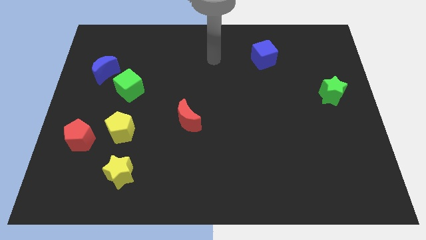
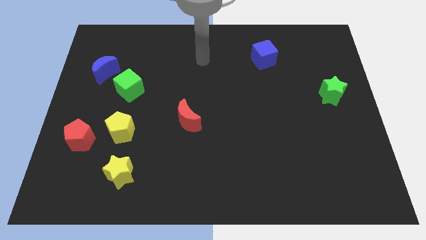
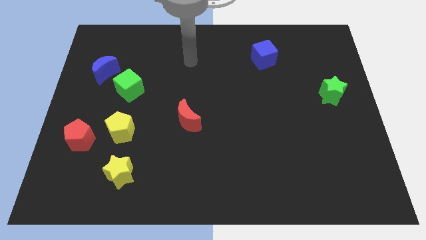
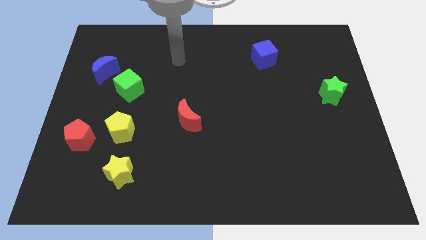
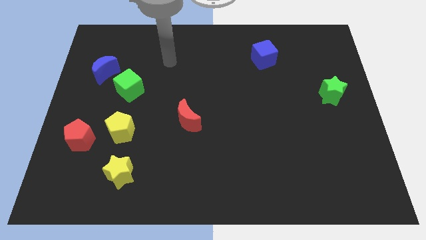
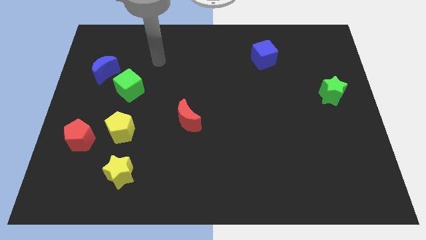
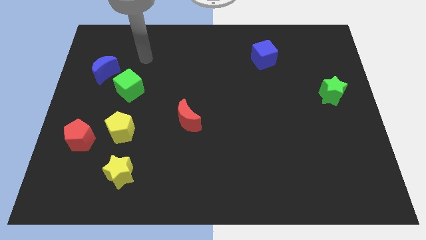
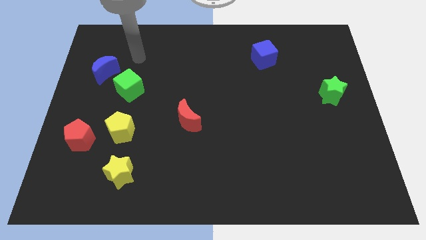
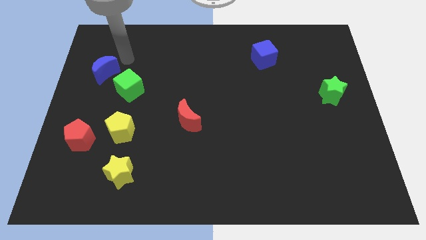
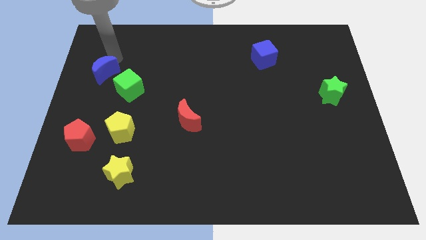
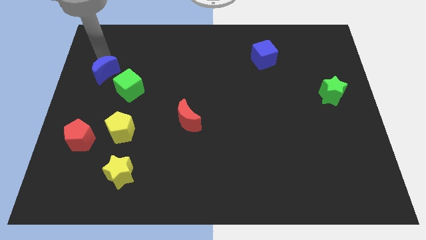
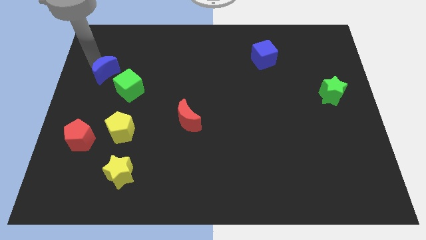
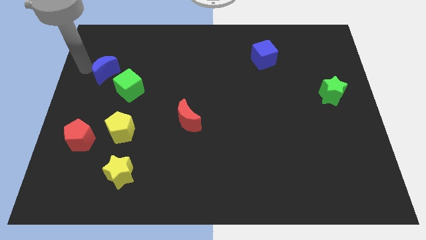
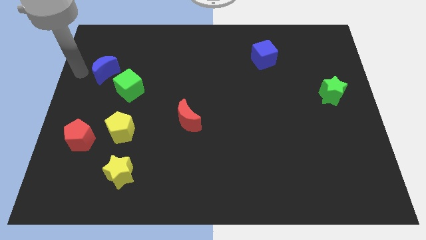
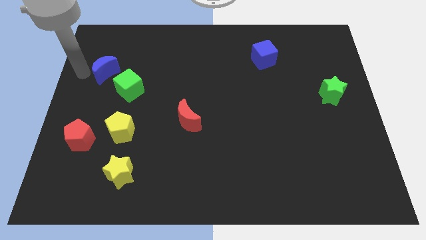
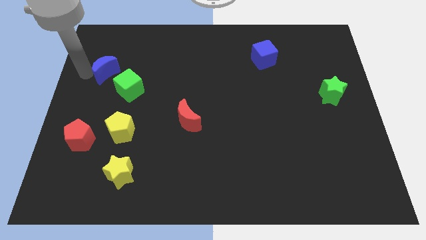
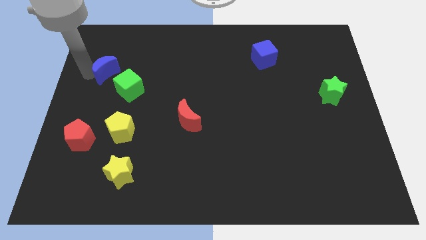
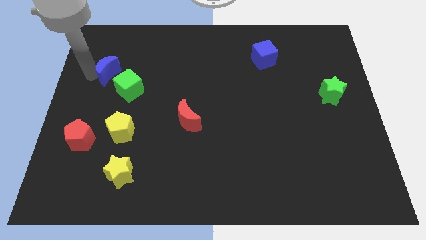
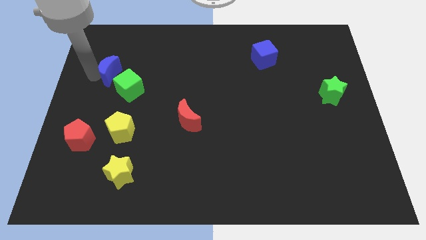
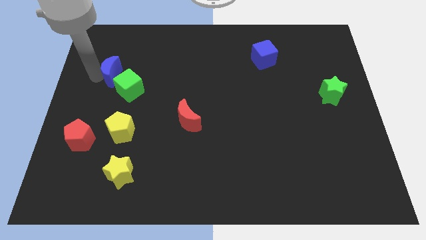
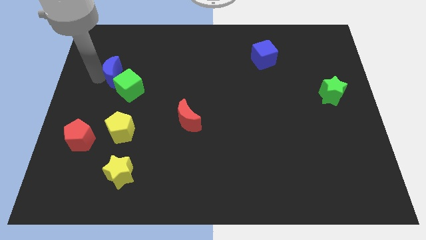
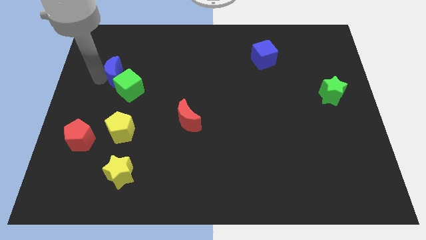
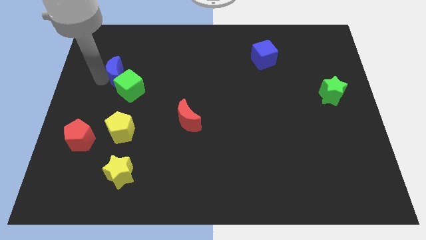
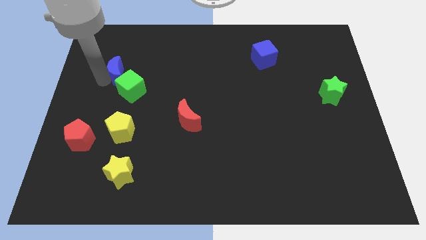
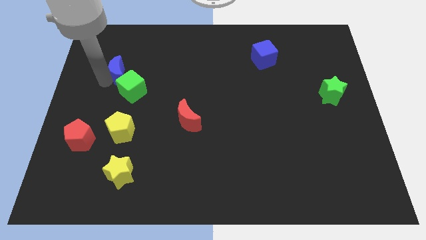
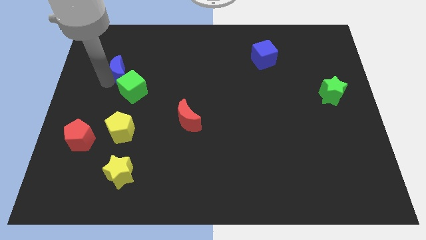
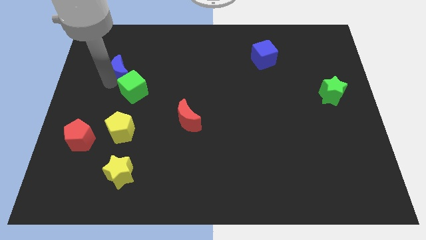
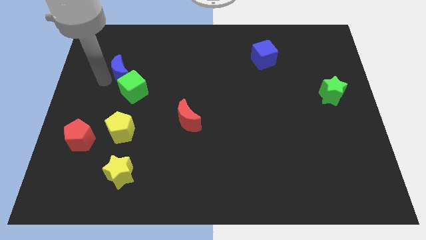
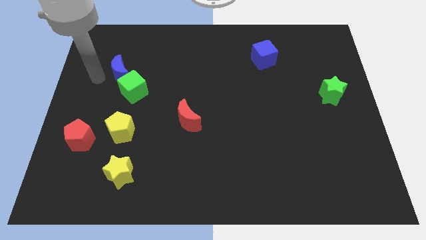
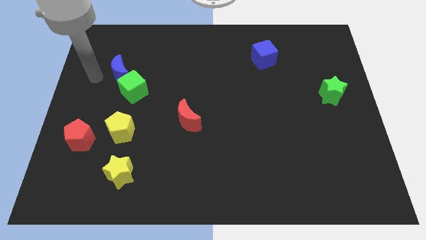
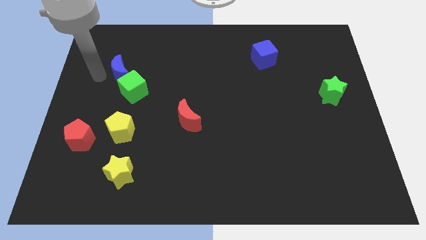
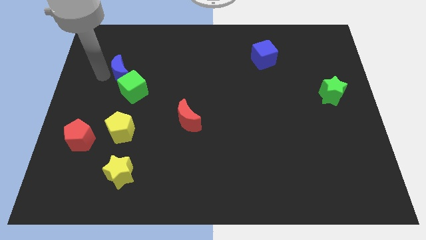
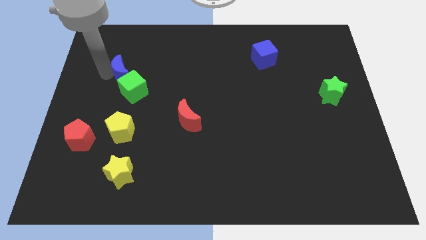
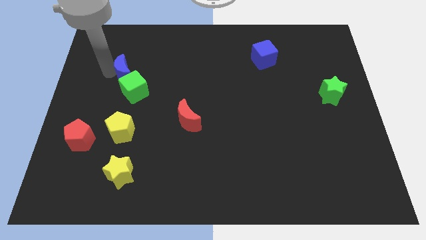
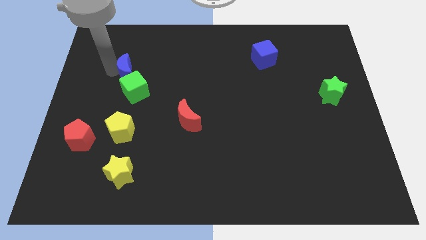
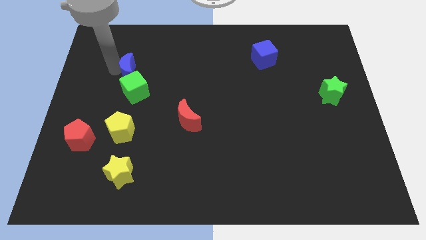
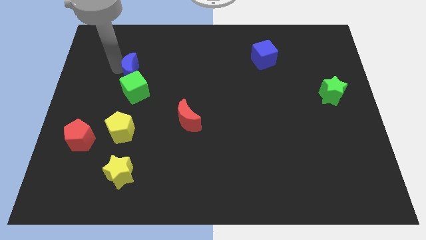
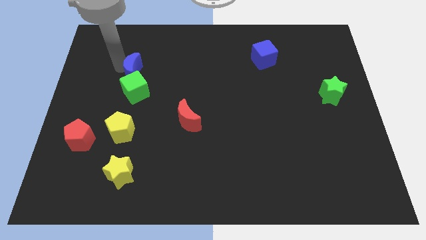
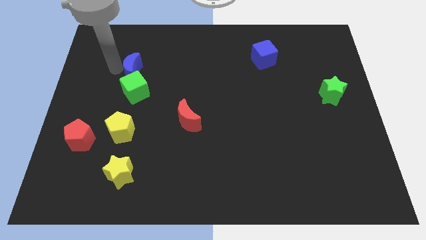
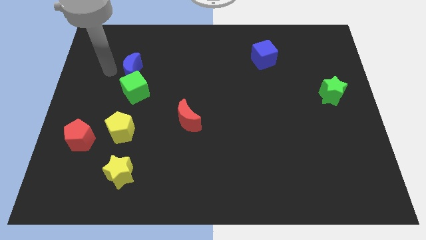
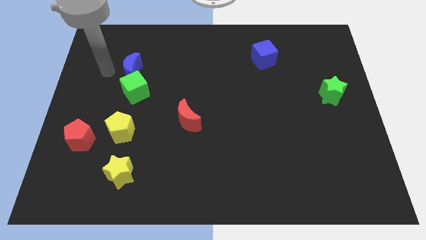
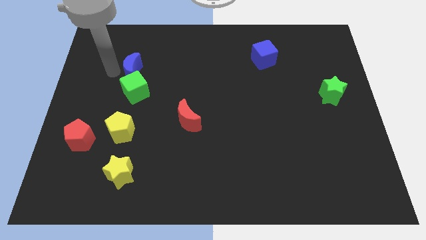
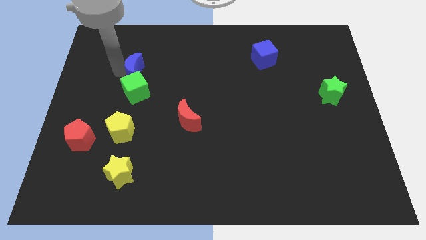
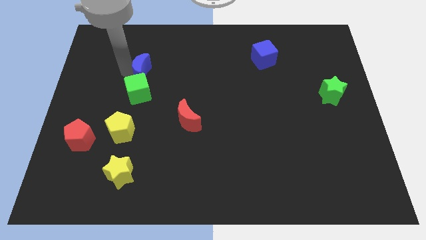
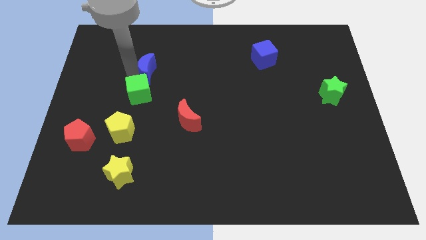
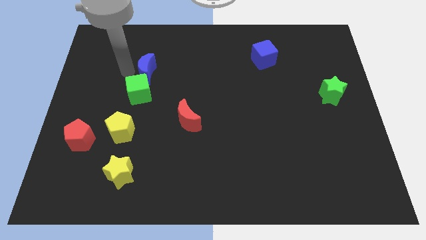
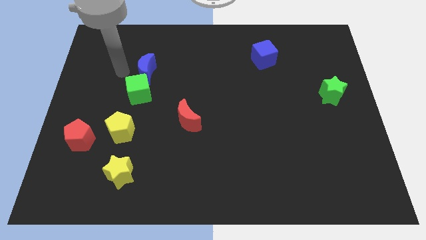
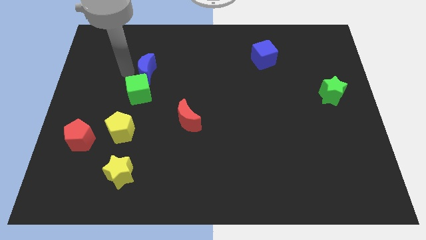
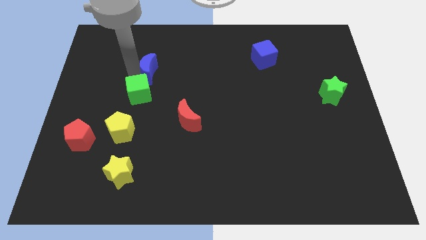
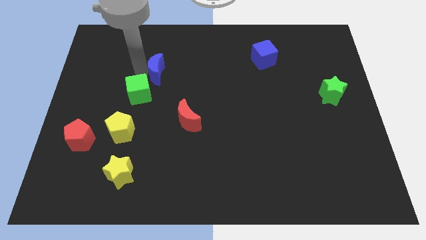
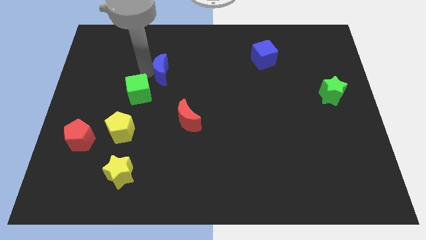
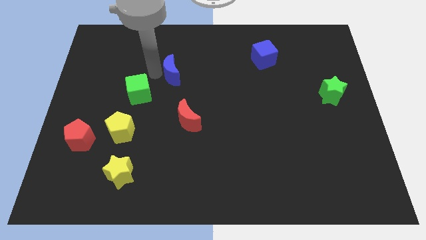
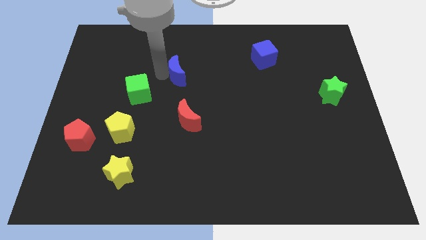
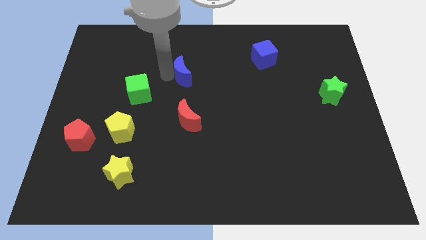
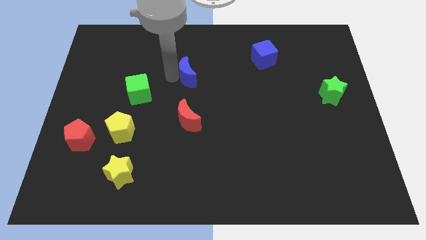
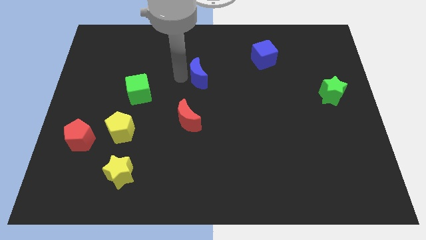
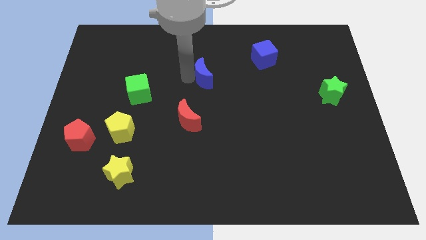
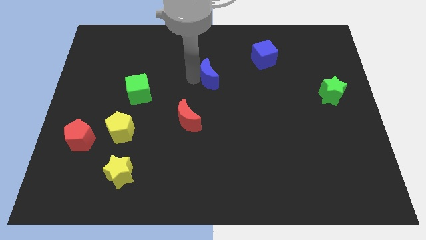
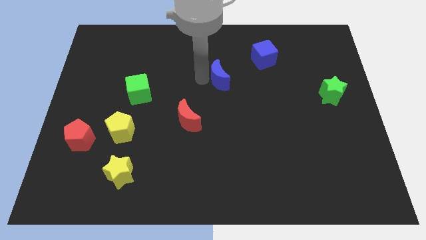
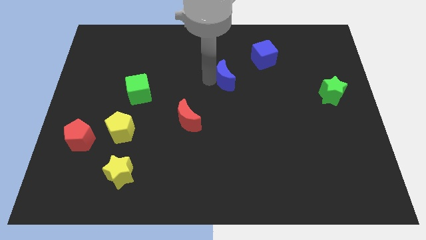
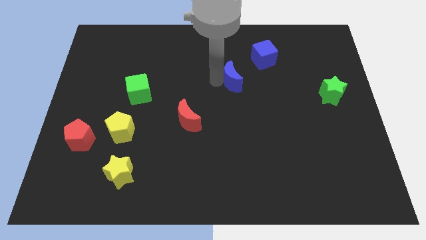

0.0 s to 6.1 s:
put the blue moon to the bottom left side of the blue cube

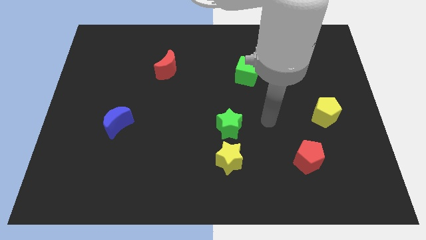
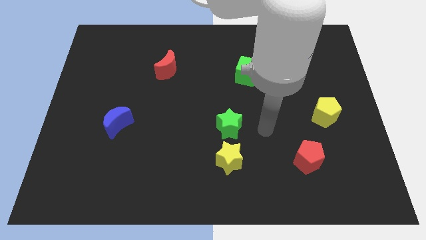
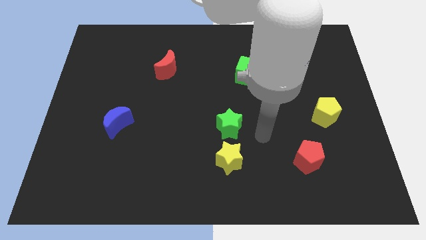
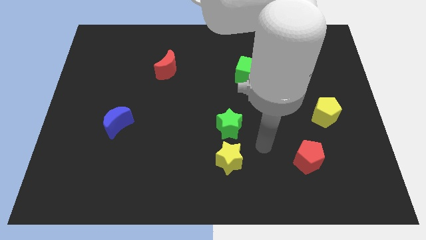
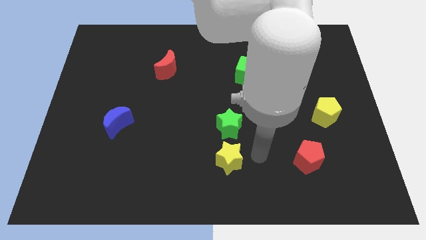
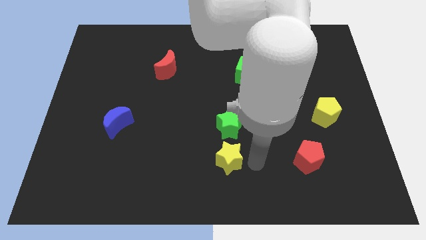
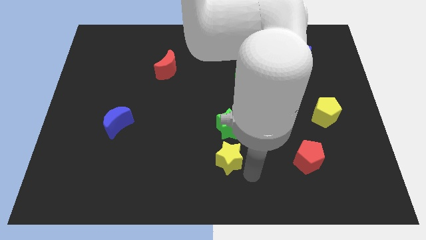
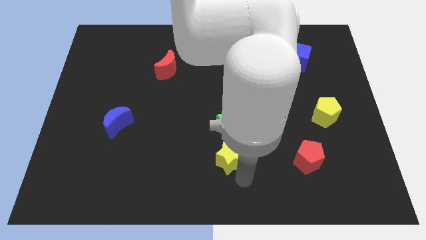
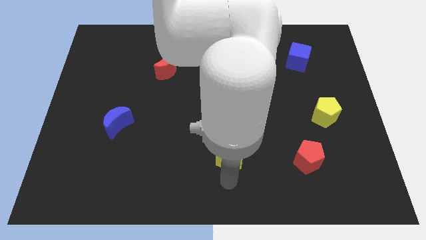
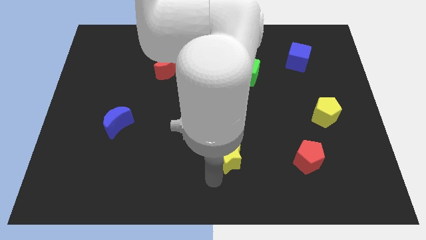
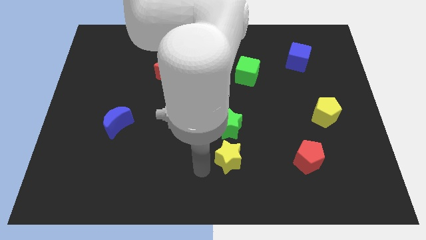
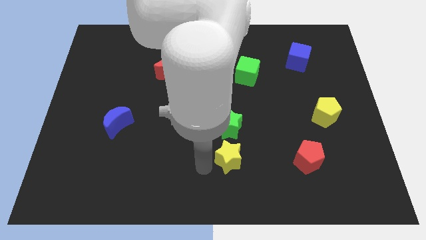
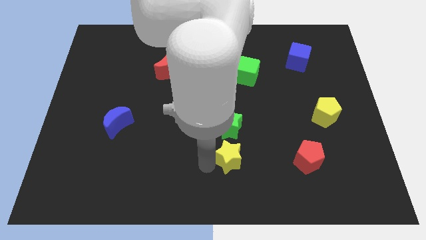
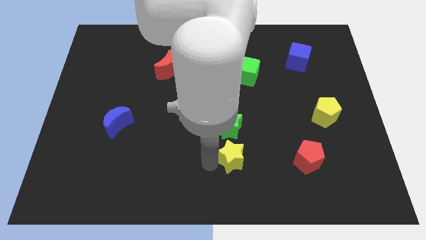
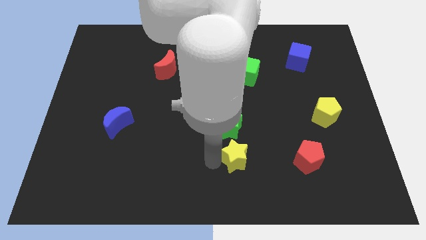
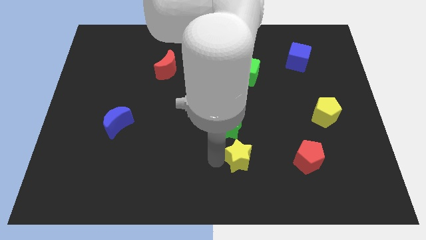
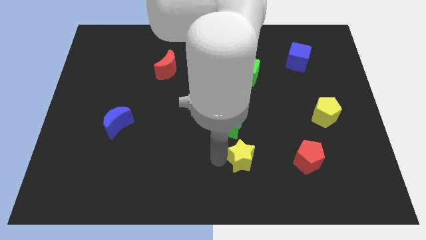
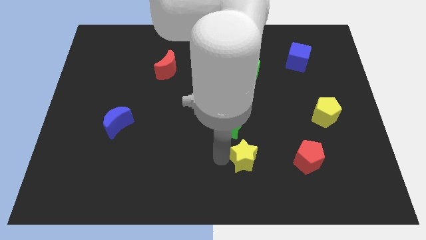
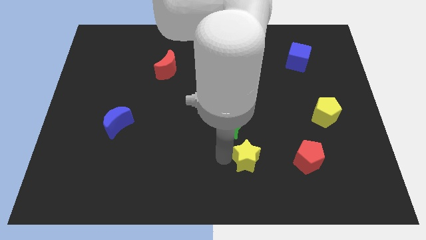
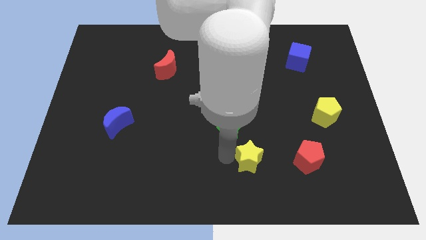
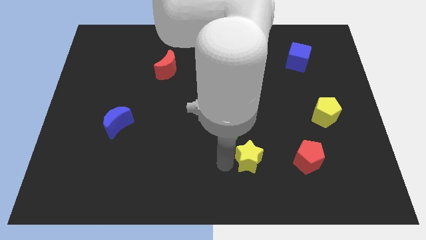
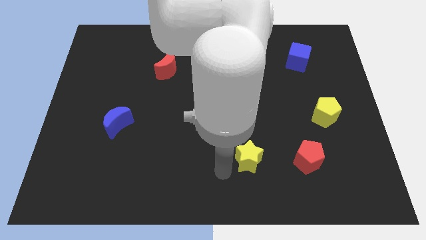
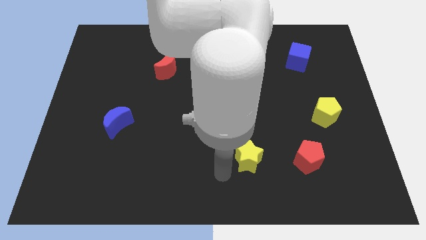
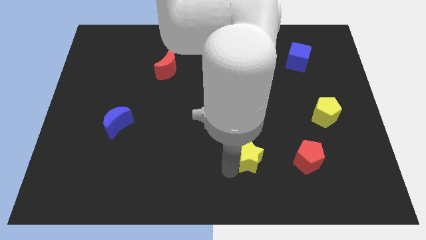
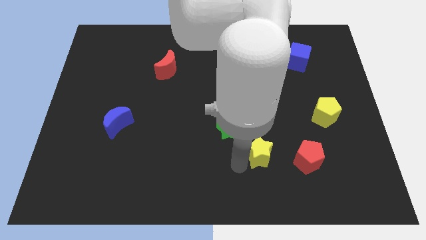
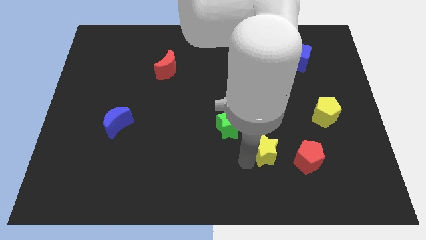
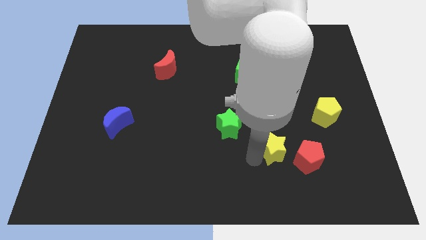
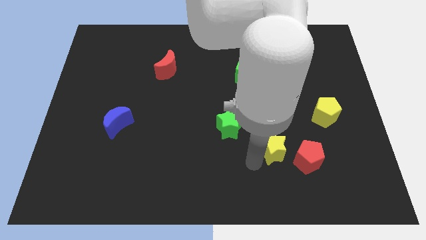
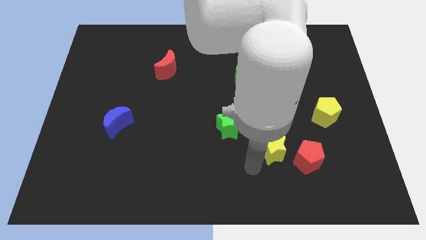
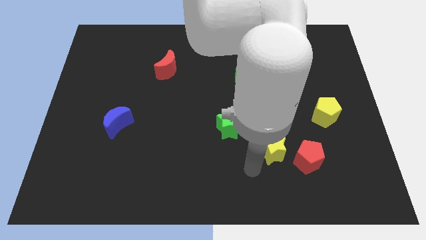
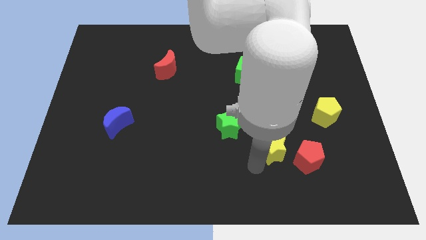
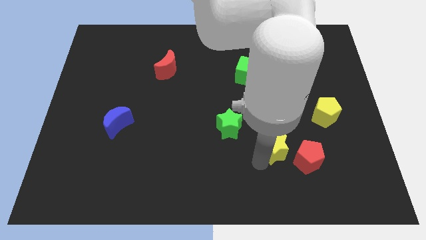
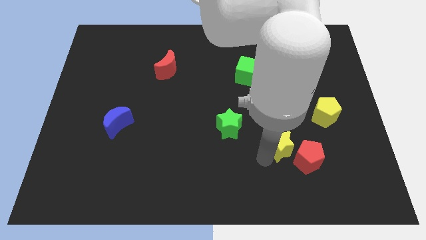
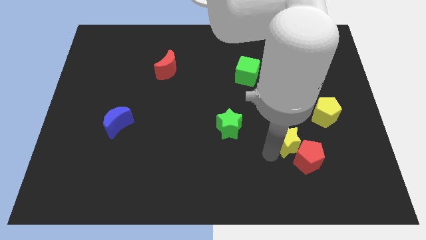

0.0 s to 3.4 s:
push the yellow star diagonally down and to the left of the yellow pentagon
